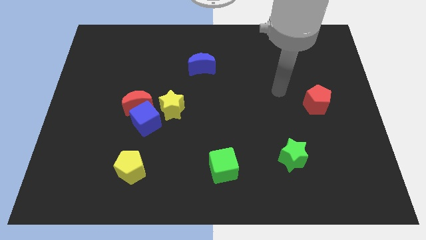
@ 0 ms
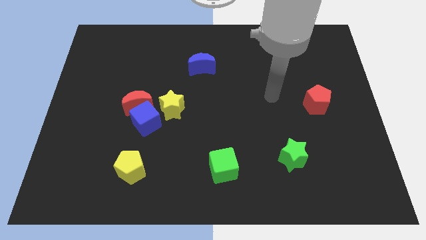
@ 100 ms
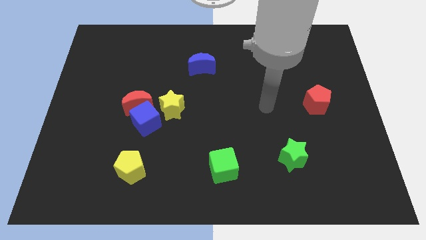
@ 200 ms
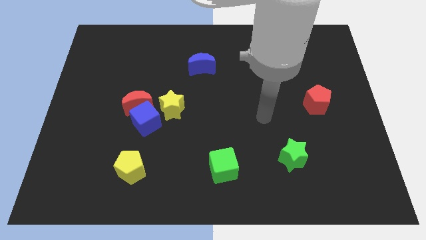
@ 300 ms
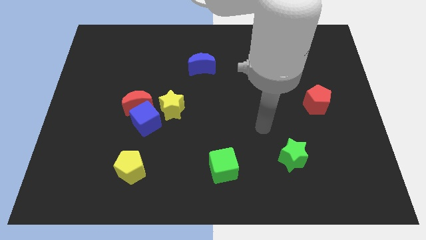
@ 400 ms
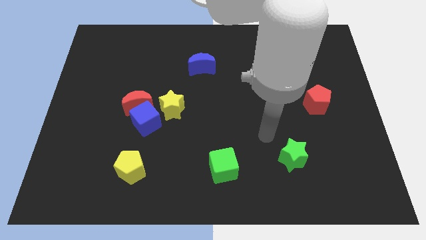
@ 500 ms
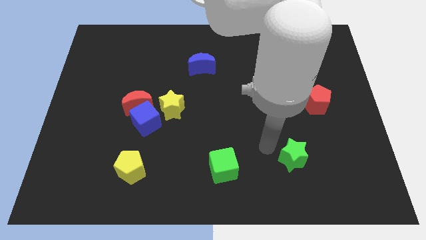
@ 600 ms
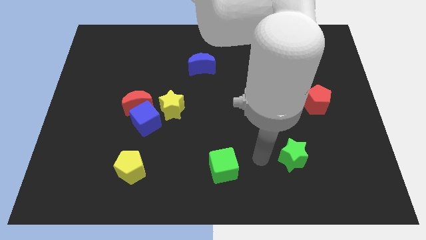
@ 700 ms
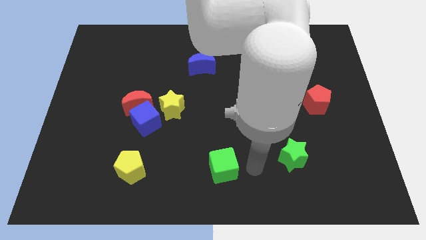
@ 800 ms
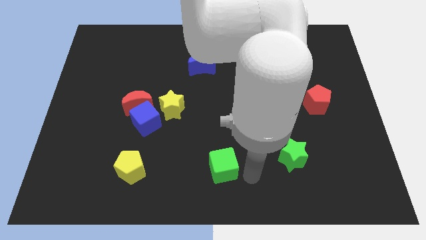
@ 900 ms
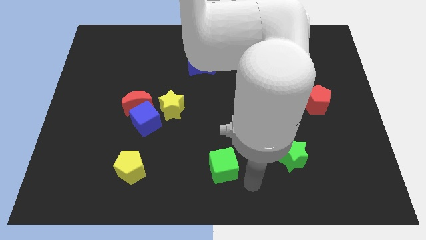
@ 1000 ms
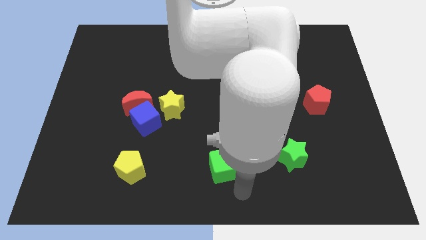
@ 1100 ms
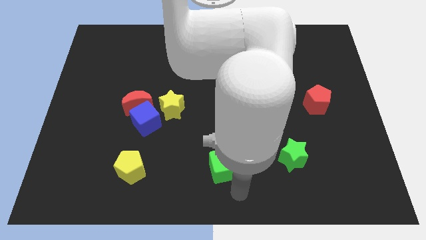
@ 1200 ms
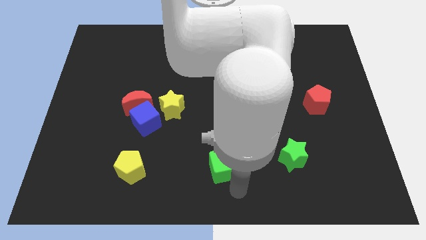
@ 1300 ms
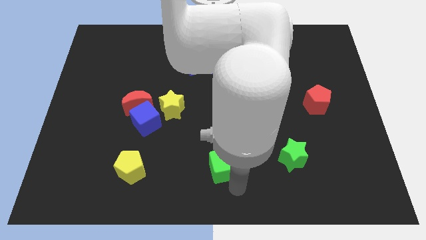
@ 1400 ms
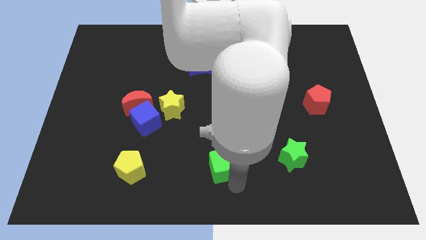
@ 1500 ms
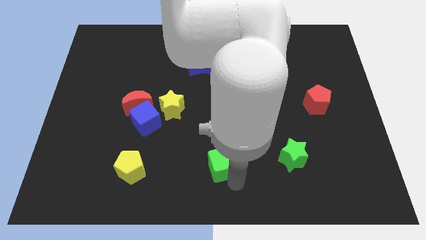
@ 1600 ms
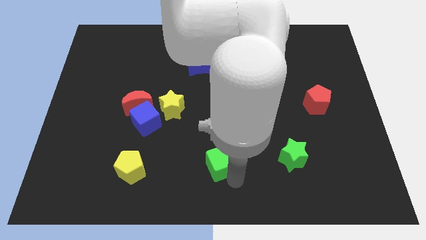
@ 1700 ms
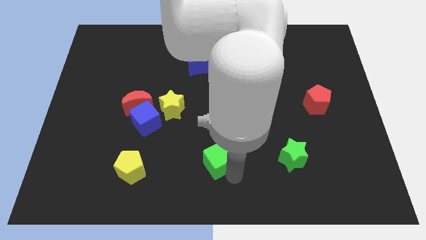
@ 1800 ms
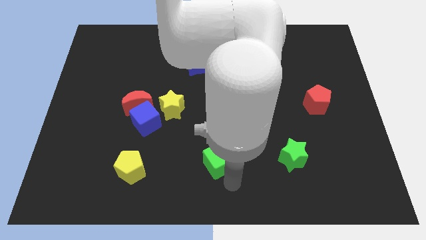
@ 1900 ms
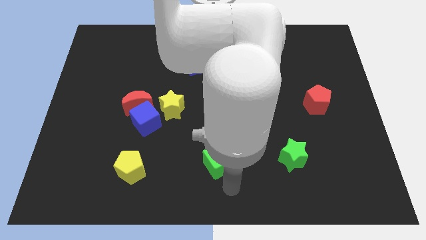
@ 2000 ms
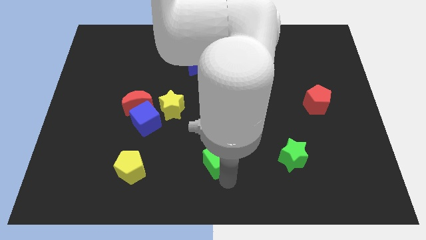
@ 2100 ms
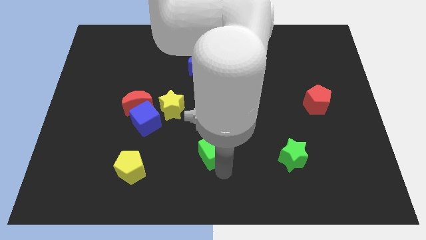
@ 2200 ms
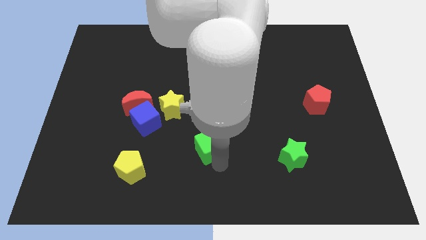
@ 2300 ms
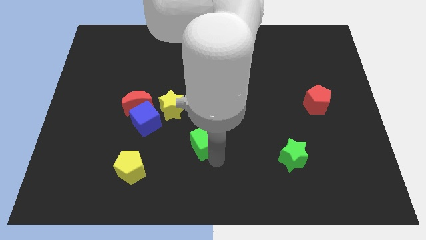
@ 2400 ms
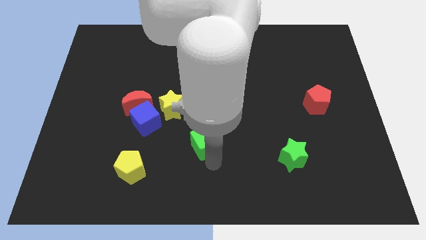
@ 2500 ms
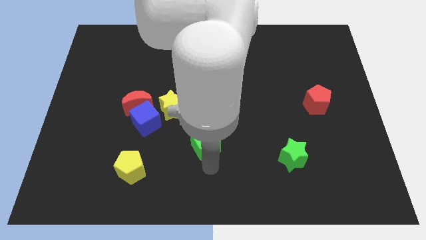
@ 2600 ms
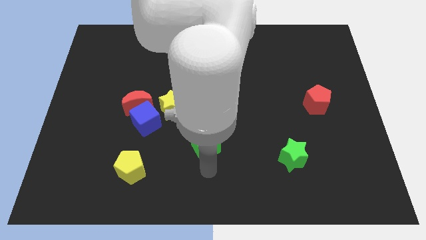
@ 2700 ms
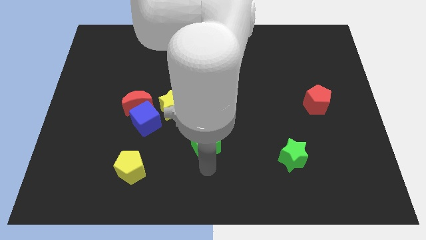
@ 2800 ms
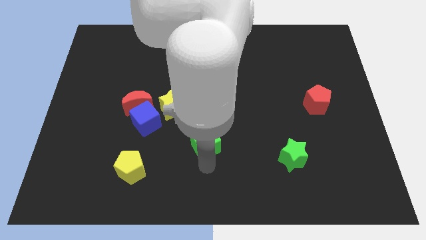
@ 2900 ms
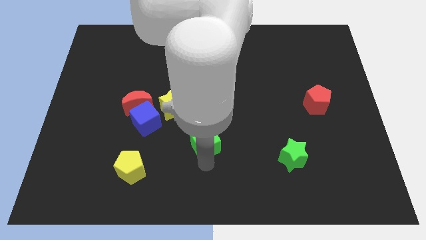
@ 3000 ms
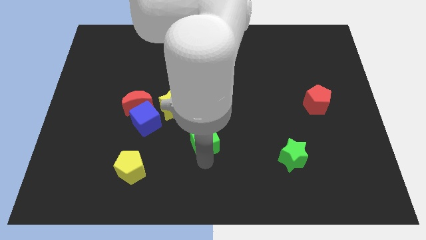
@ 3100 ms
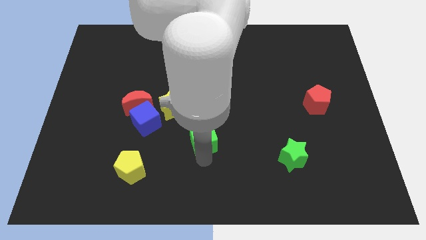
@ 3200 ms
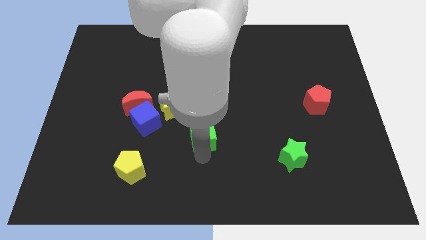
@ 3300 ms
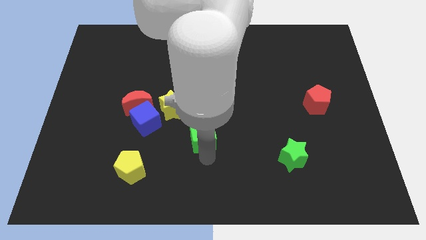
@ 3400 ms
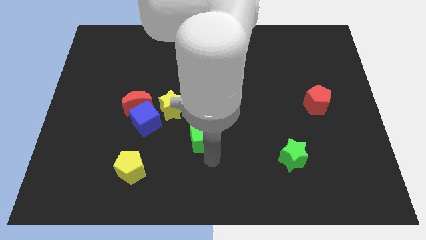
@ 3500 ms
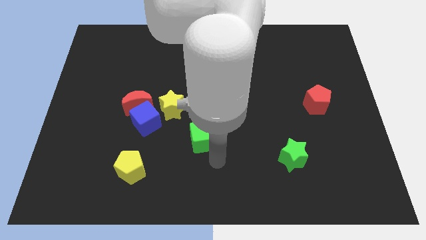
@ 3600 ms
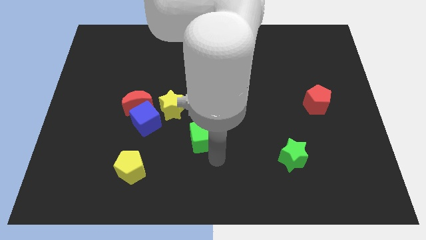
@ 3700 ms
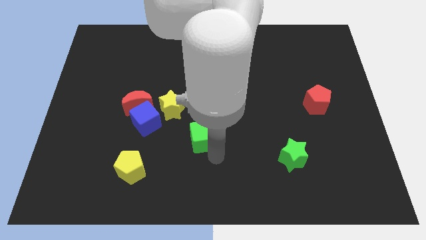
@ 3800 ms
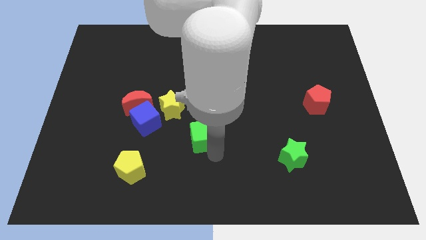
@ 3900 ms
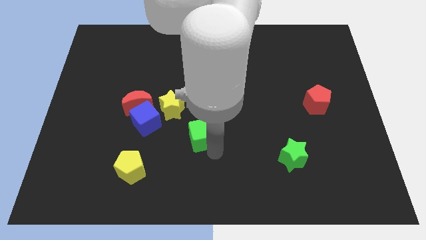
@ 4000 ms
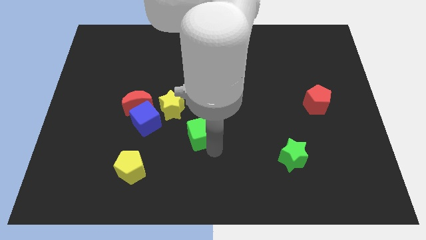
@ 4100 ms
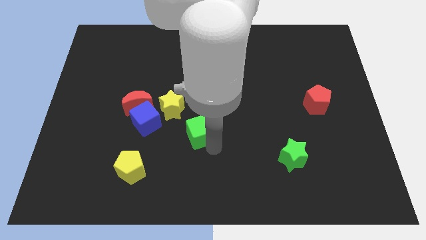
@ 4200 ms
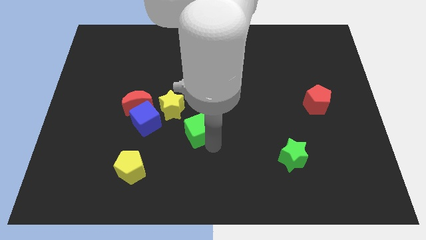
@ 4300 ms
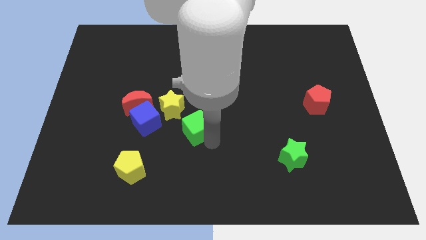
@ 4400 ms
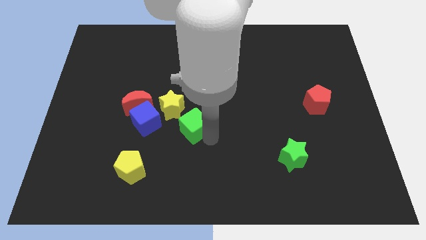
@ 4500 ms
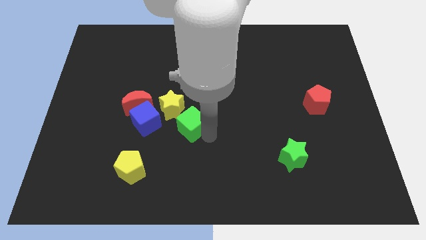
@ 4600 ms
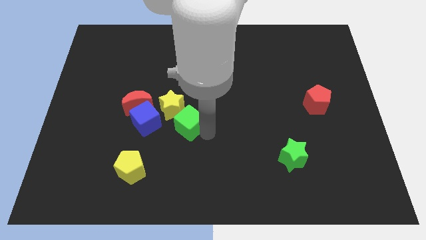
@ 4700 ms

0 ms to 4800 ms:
push the green cube to the yellow star

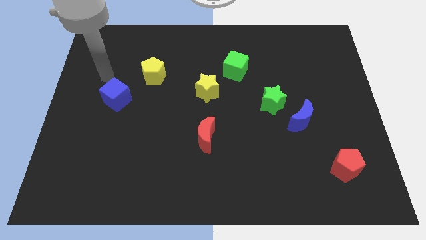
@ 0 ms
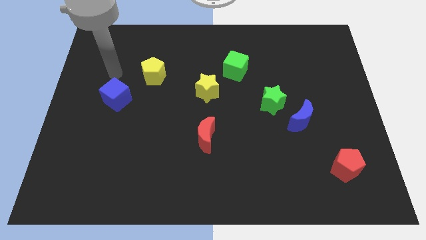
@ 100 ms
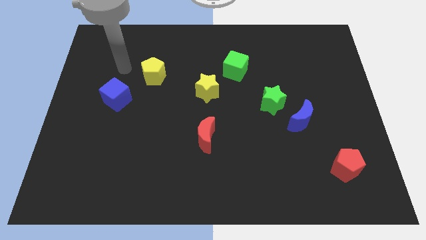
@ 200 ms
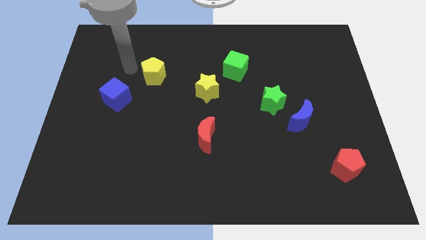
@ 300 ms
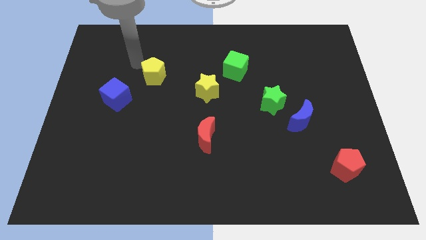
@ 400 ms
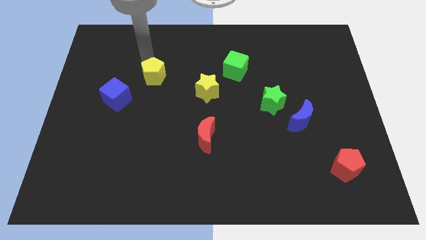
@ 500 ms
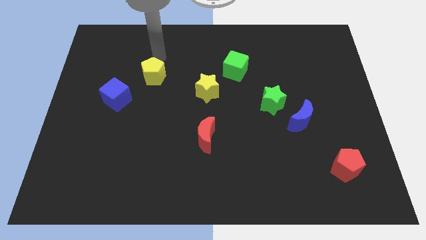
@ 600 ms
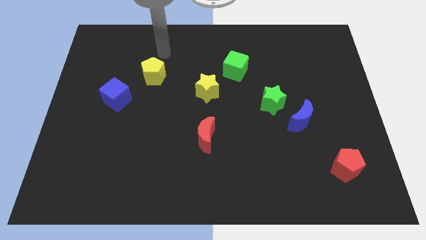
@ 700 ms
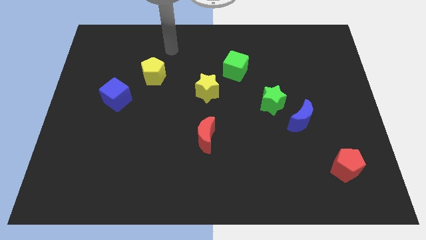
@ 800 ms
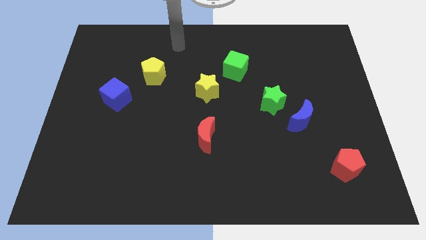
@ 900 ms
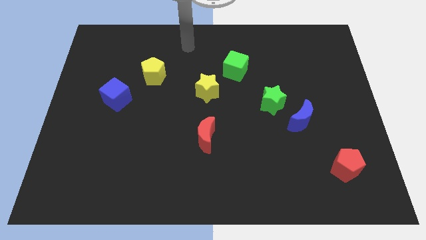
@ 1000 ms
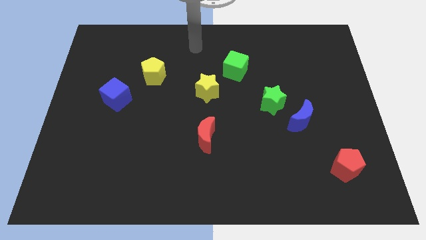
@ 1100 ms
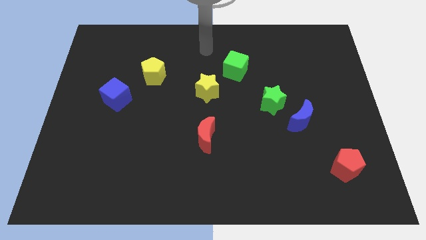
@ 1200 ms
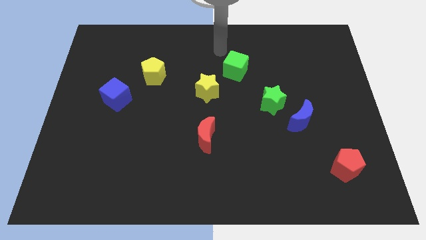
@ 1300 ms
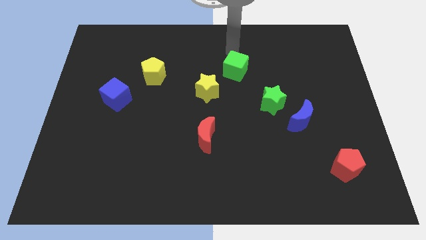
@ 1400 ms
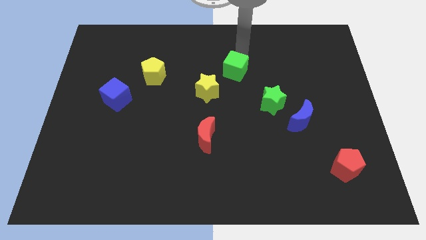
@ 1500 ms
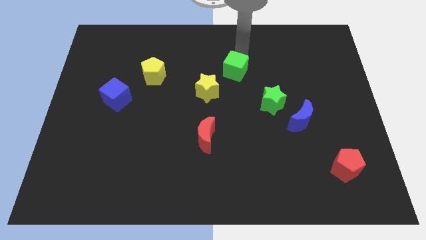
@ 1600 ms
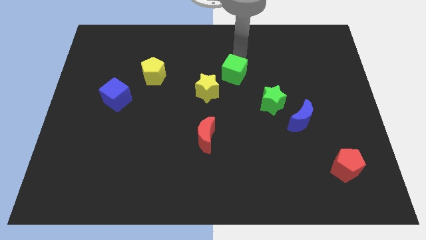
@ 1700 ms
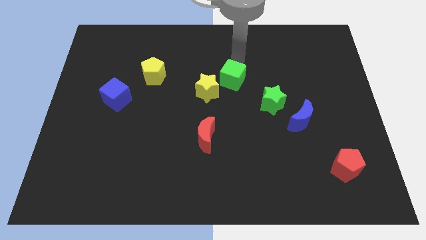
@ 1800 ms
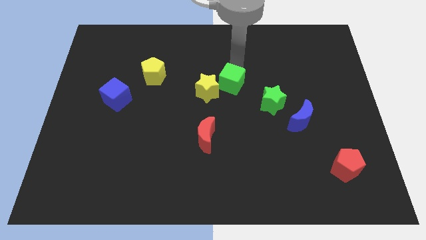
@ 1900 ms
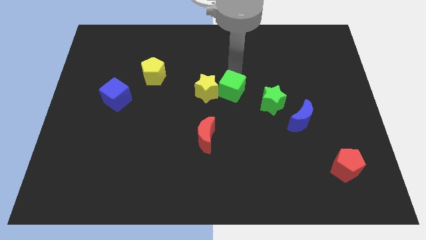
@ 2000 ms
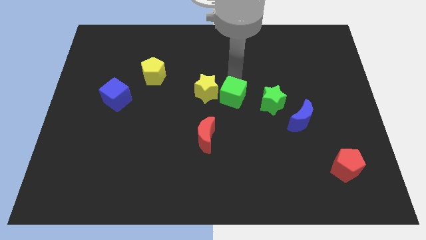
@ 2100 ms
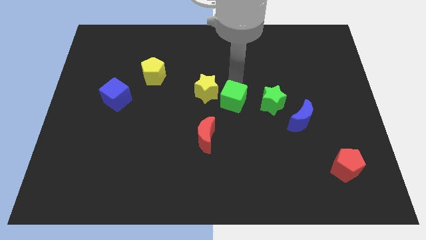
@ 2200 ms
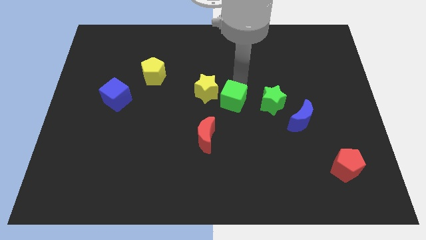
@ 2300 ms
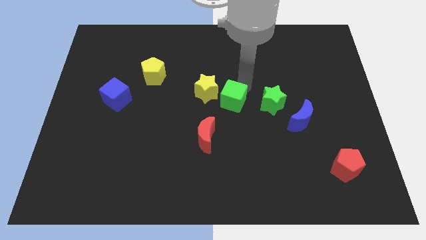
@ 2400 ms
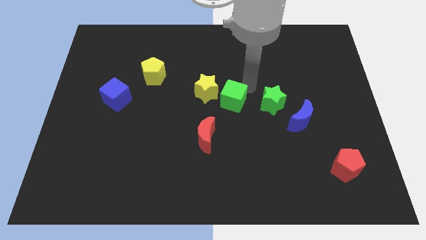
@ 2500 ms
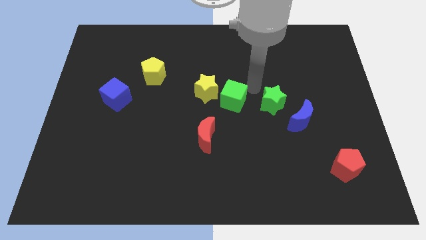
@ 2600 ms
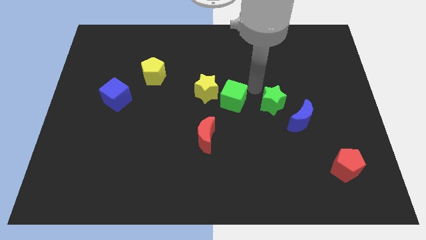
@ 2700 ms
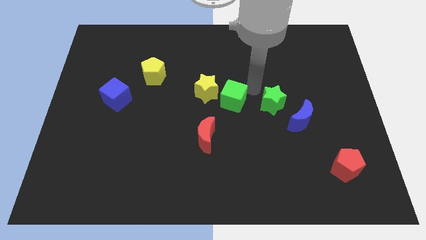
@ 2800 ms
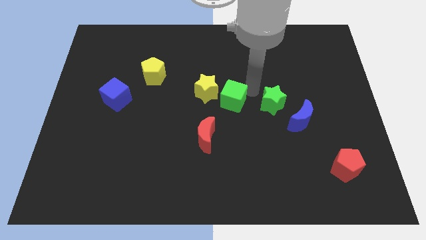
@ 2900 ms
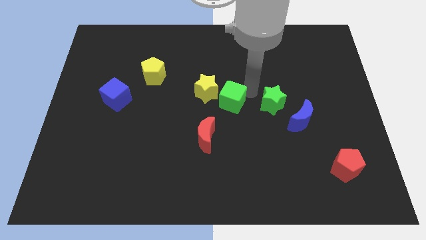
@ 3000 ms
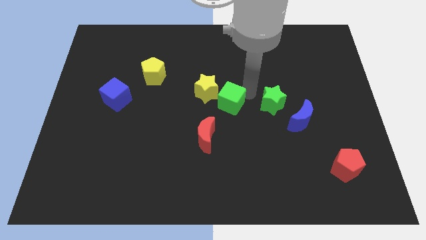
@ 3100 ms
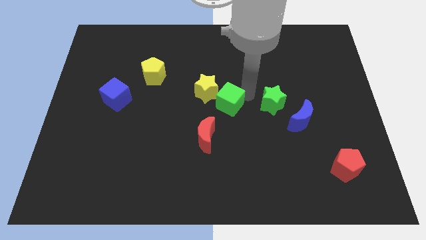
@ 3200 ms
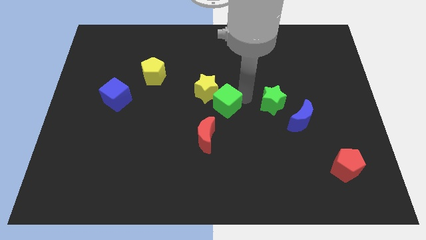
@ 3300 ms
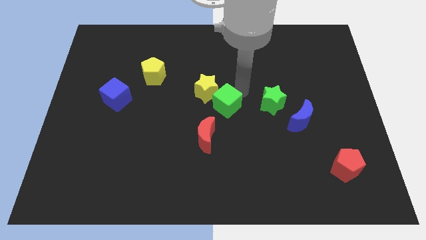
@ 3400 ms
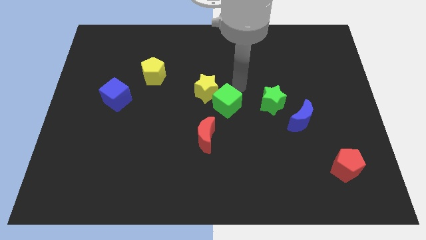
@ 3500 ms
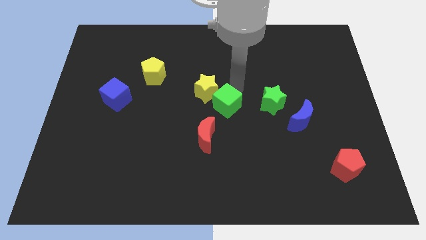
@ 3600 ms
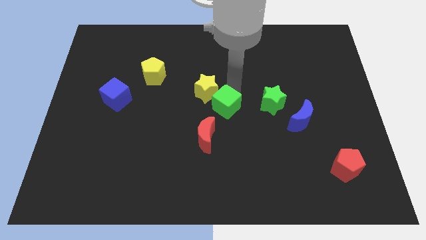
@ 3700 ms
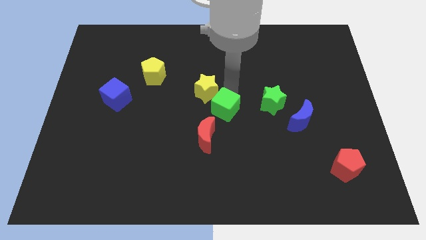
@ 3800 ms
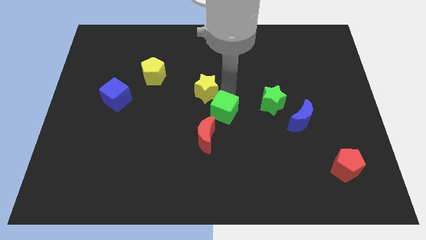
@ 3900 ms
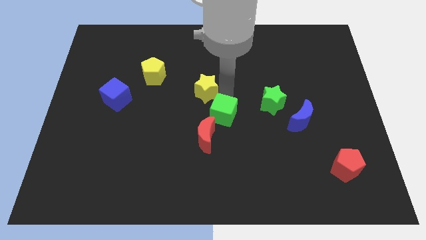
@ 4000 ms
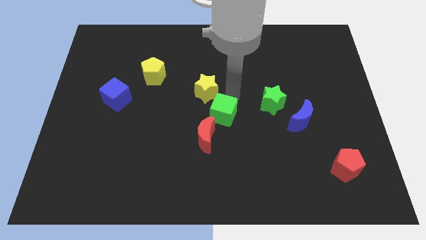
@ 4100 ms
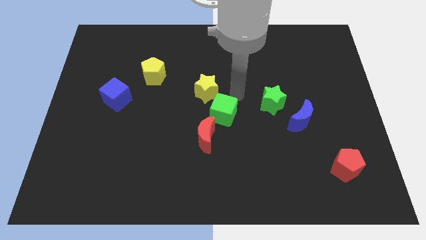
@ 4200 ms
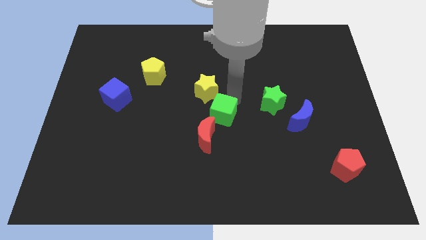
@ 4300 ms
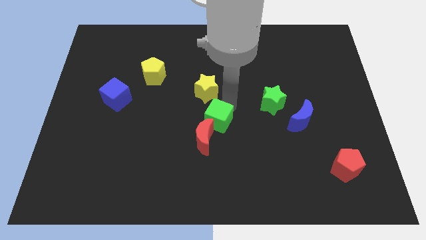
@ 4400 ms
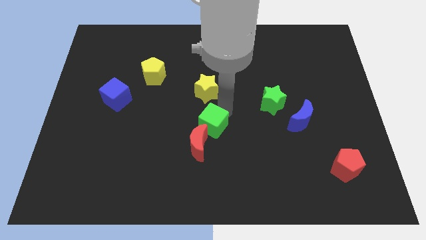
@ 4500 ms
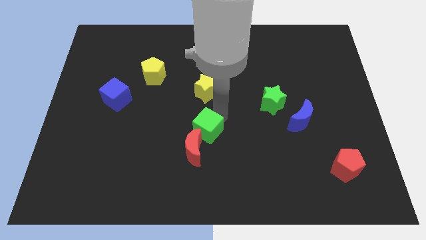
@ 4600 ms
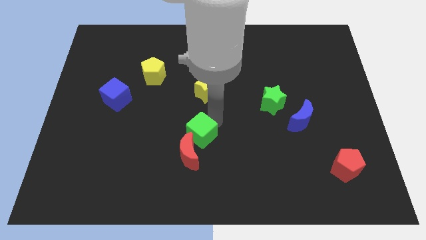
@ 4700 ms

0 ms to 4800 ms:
put the green cube to the red moon
